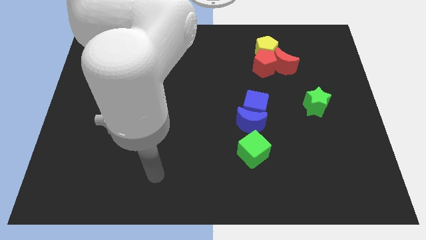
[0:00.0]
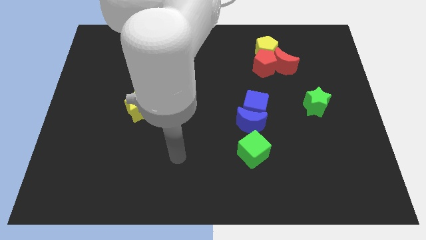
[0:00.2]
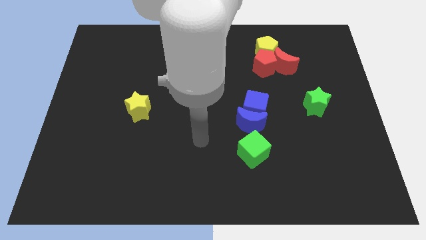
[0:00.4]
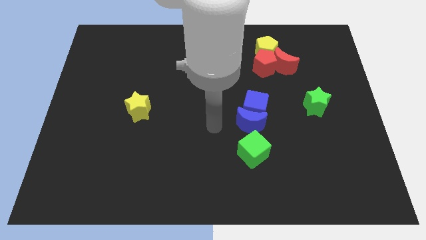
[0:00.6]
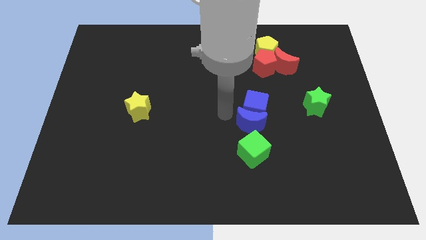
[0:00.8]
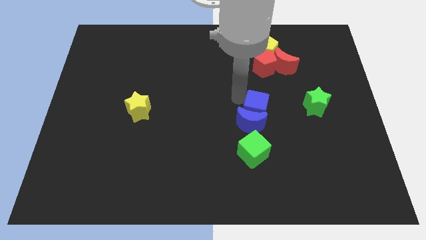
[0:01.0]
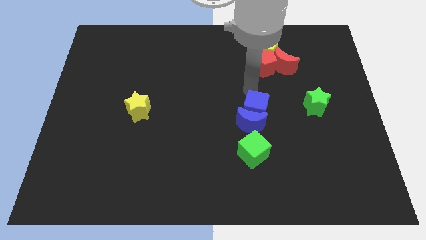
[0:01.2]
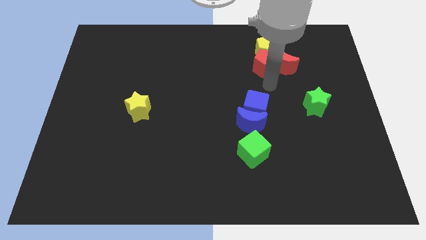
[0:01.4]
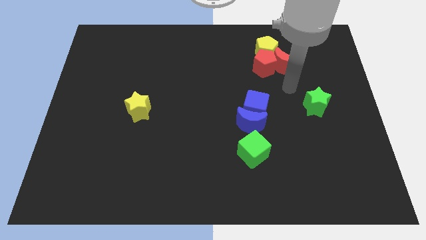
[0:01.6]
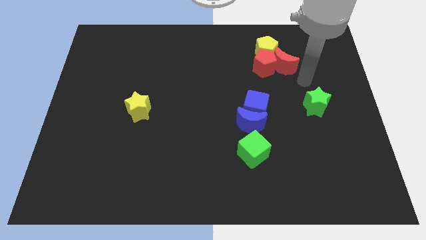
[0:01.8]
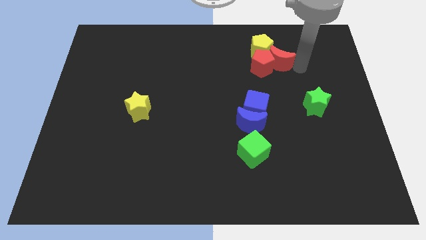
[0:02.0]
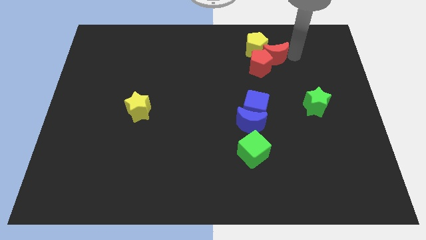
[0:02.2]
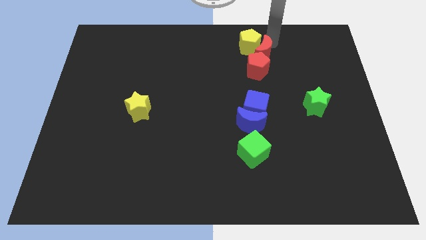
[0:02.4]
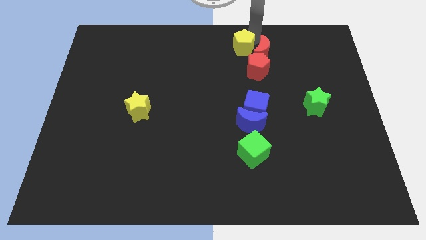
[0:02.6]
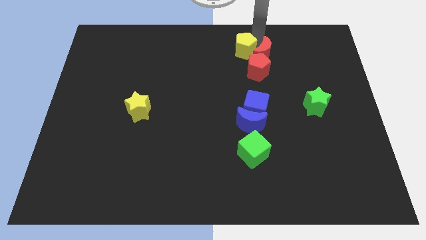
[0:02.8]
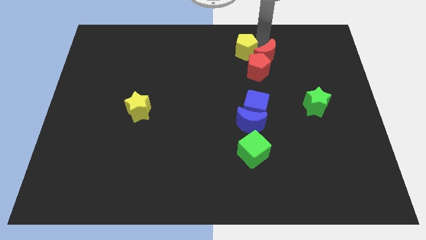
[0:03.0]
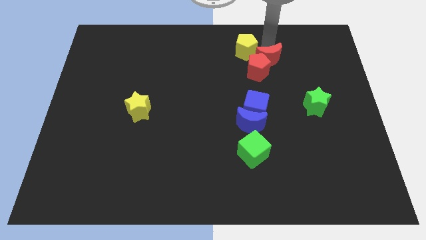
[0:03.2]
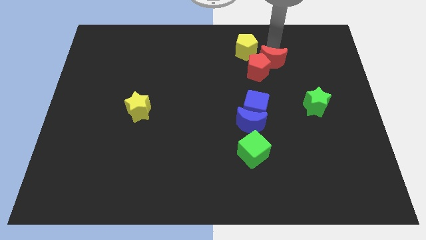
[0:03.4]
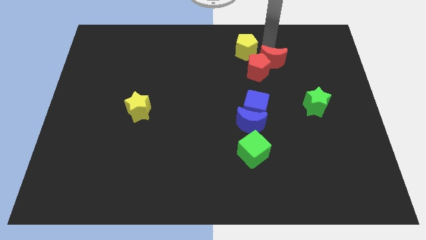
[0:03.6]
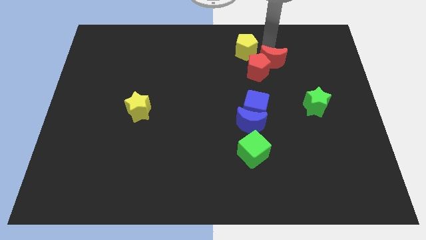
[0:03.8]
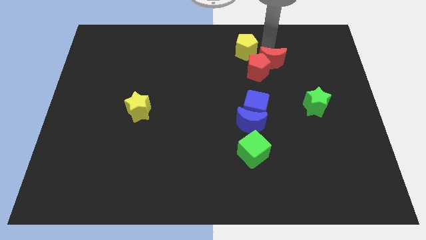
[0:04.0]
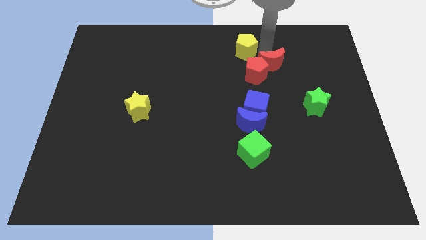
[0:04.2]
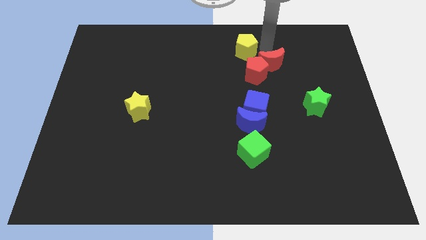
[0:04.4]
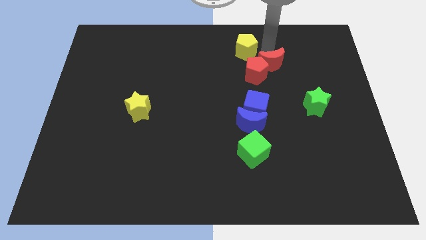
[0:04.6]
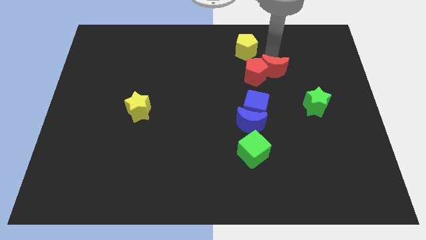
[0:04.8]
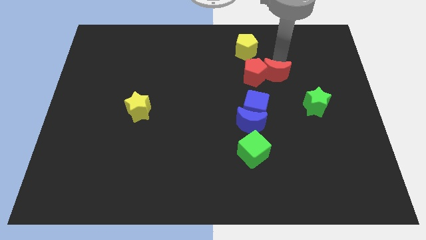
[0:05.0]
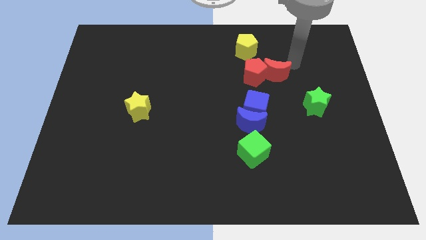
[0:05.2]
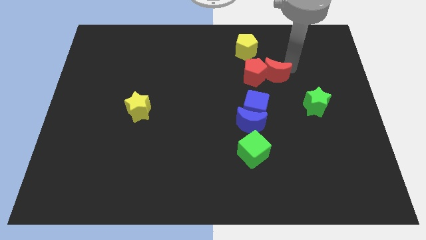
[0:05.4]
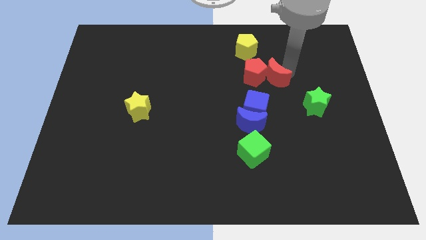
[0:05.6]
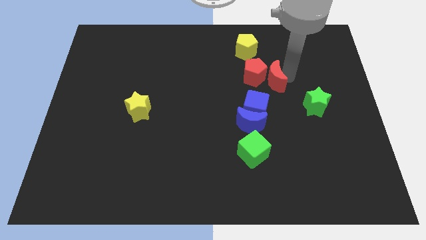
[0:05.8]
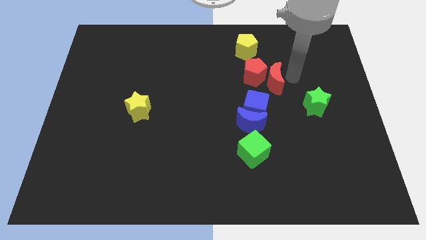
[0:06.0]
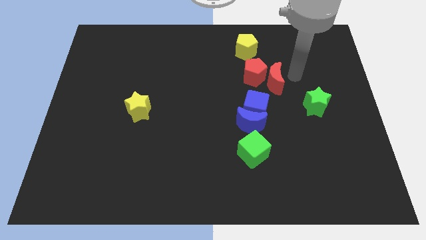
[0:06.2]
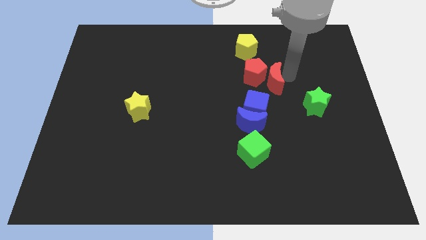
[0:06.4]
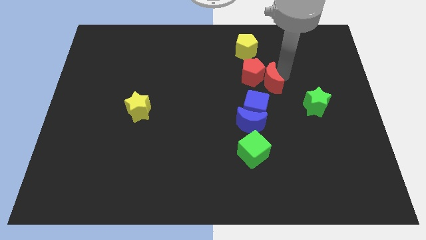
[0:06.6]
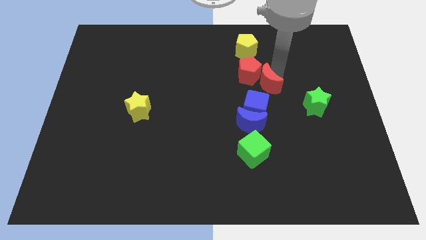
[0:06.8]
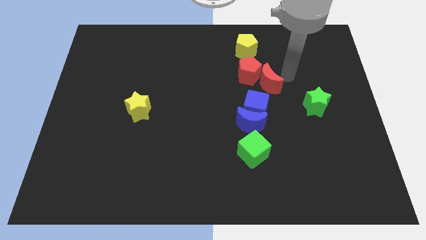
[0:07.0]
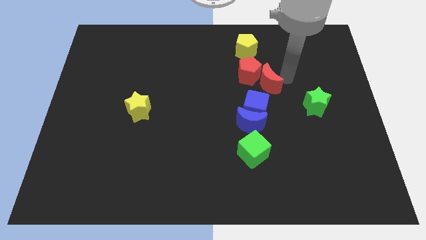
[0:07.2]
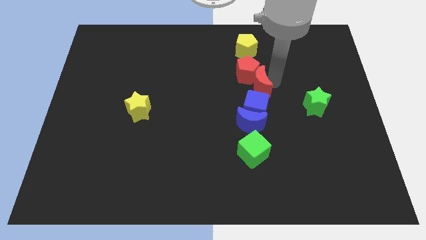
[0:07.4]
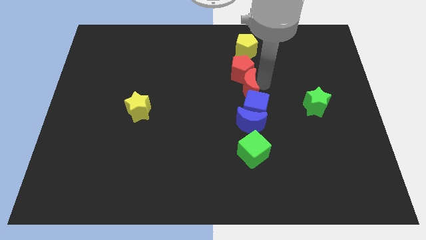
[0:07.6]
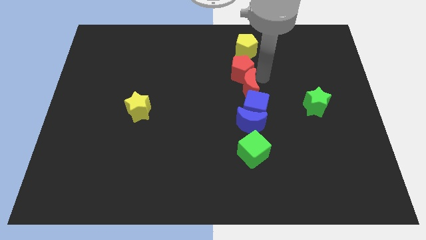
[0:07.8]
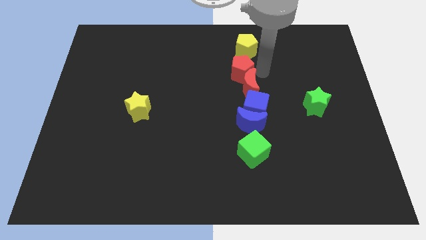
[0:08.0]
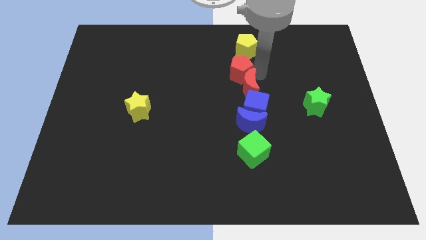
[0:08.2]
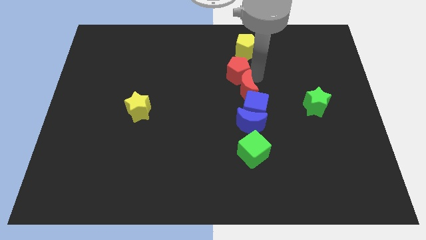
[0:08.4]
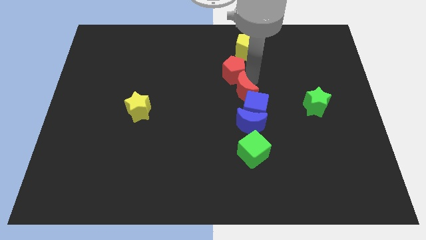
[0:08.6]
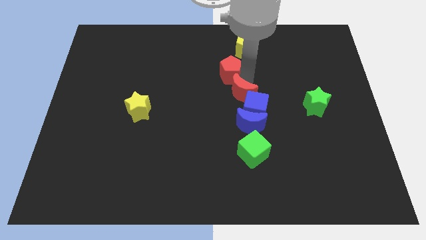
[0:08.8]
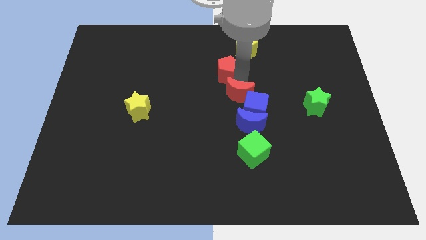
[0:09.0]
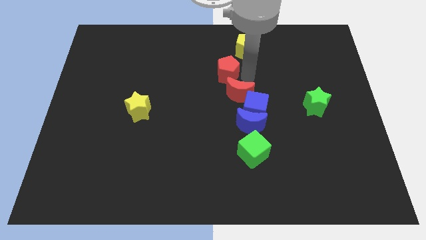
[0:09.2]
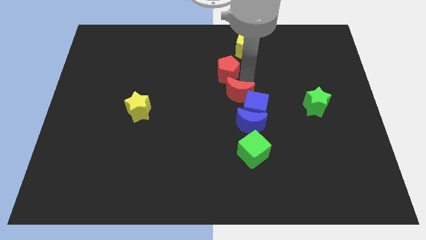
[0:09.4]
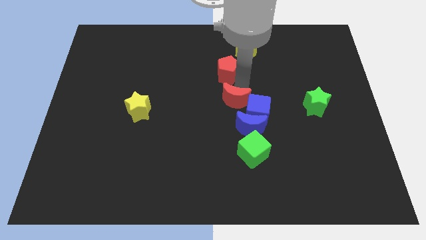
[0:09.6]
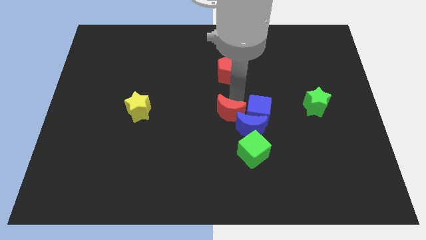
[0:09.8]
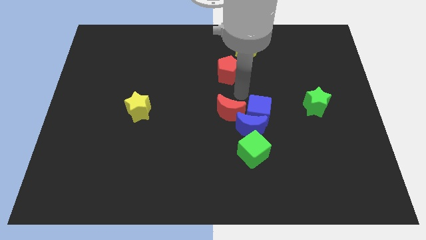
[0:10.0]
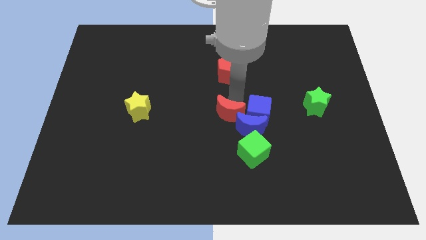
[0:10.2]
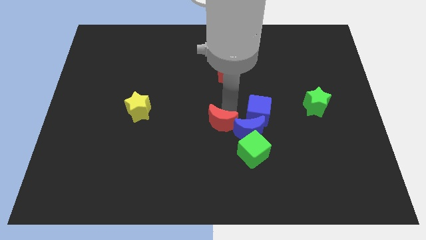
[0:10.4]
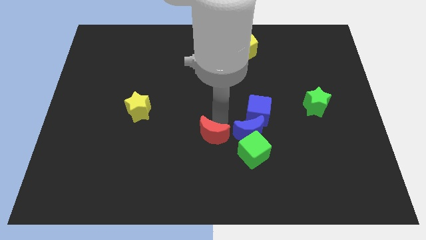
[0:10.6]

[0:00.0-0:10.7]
move the red moon to the left side of the green cube

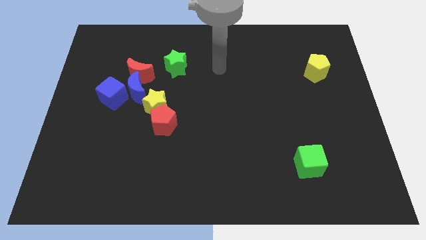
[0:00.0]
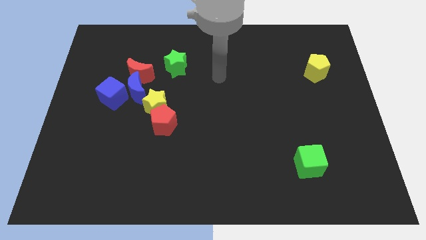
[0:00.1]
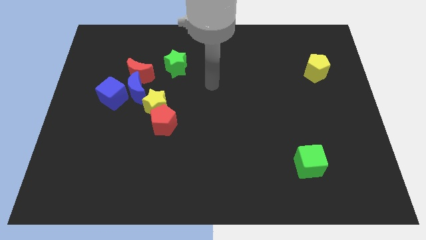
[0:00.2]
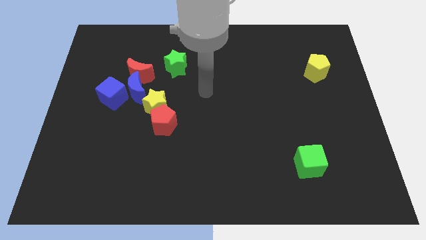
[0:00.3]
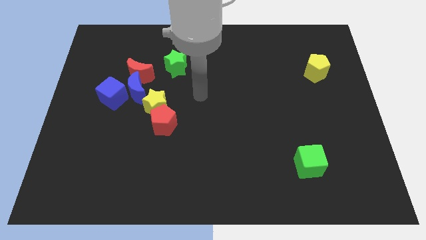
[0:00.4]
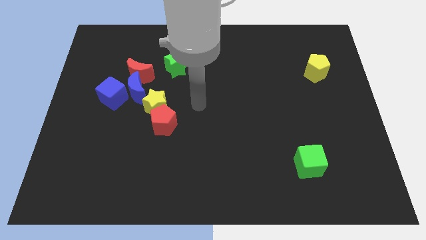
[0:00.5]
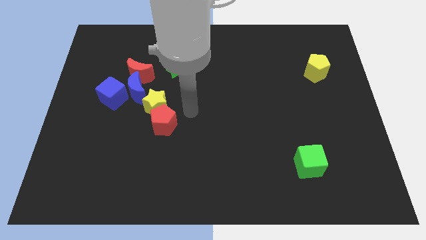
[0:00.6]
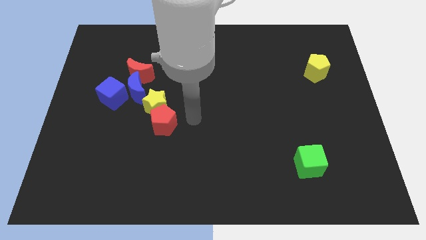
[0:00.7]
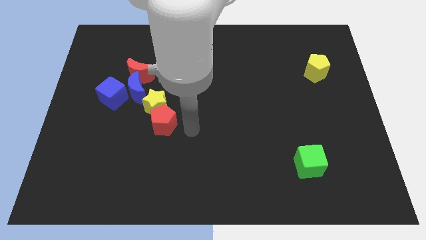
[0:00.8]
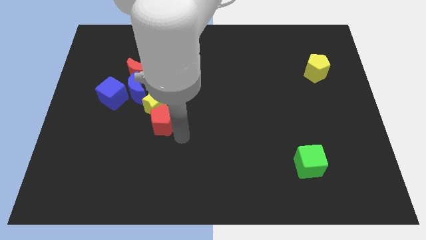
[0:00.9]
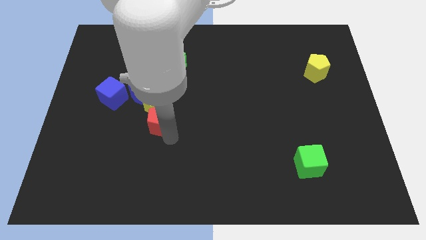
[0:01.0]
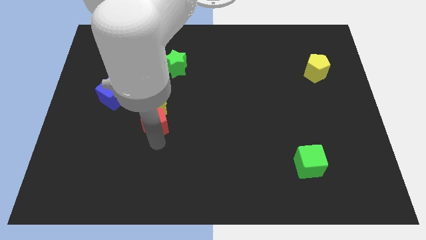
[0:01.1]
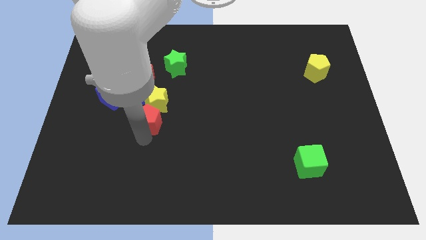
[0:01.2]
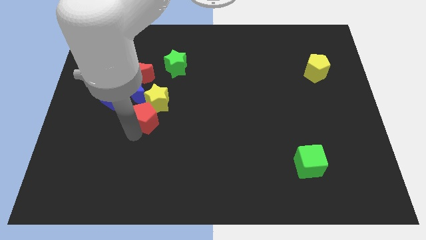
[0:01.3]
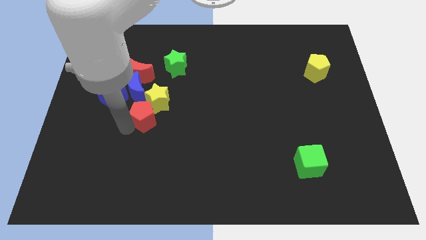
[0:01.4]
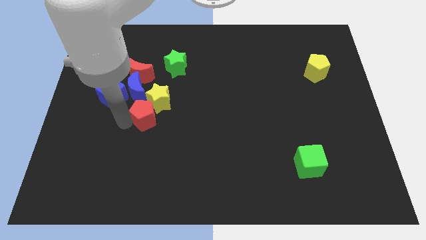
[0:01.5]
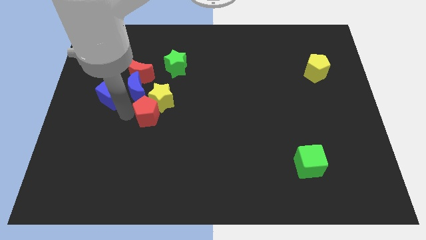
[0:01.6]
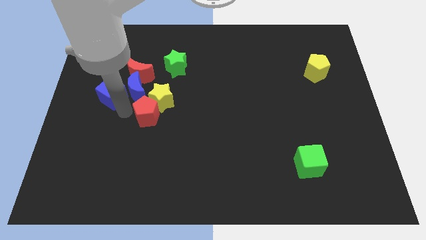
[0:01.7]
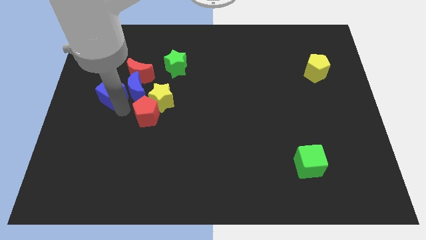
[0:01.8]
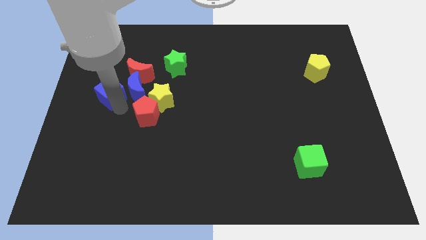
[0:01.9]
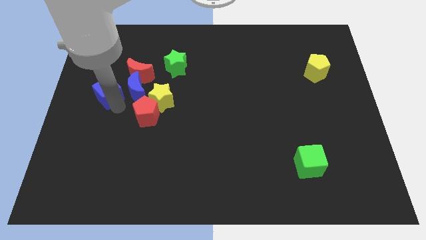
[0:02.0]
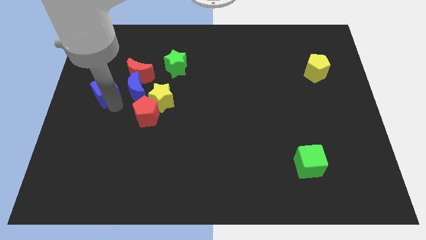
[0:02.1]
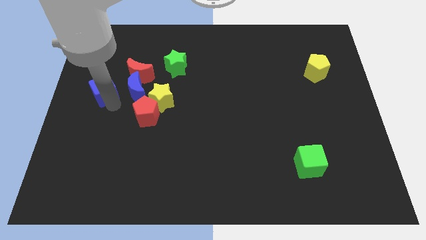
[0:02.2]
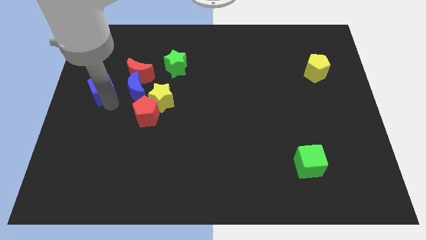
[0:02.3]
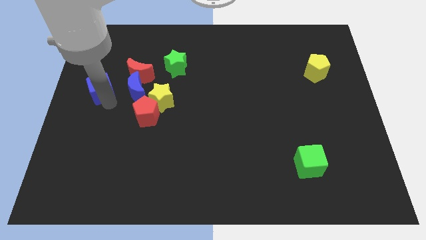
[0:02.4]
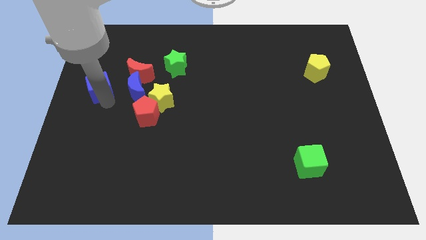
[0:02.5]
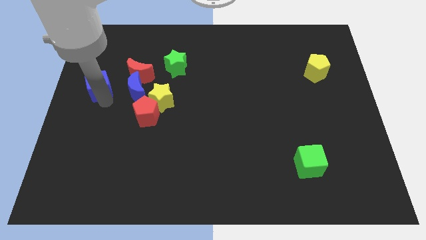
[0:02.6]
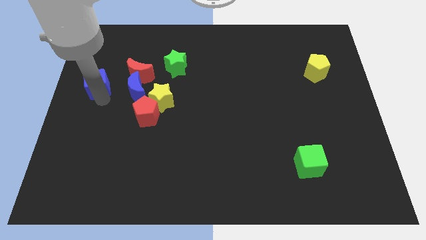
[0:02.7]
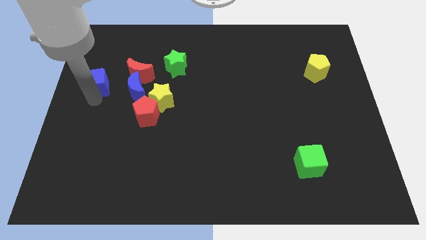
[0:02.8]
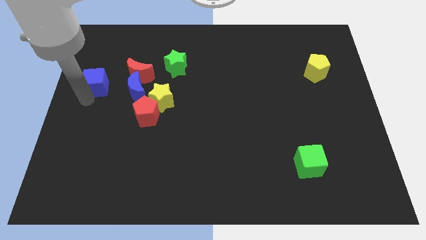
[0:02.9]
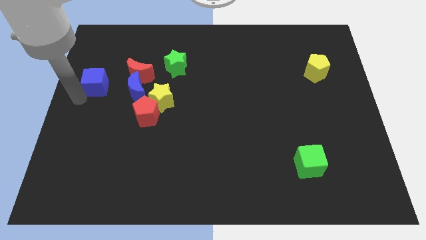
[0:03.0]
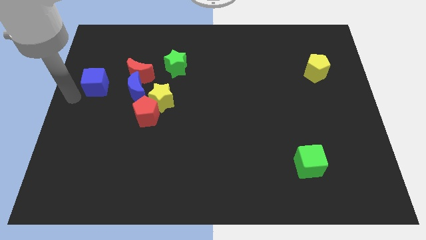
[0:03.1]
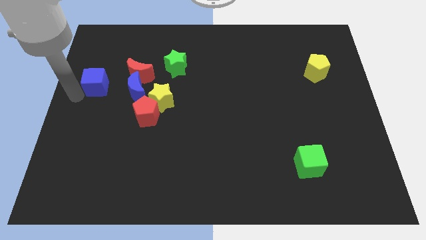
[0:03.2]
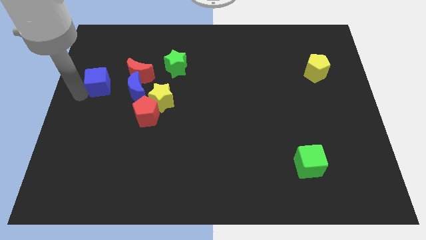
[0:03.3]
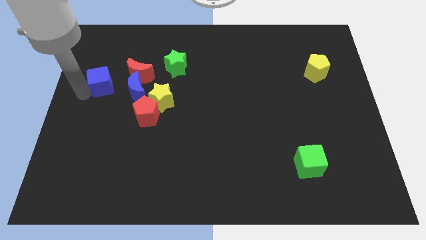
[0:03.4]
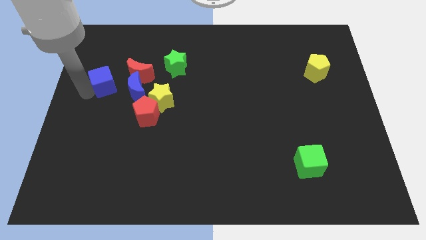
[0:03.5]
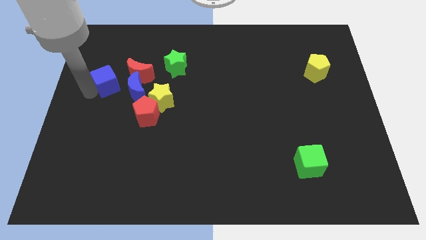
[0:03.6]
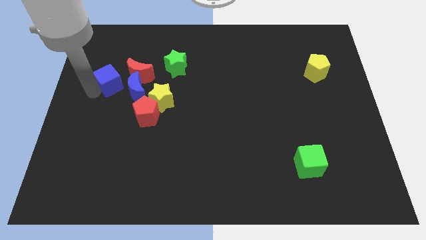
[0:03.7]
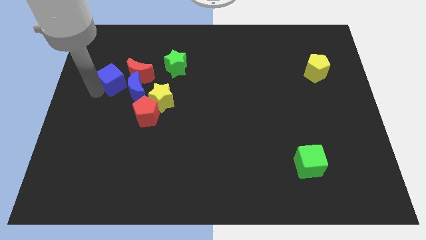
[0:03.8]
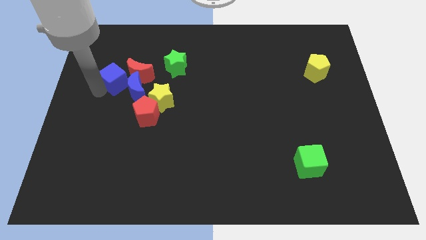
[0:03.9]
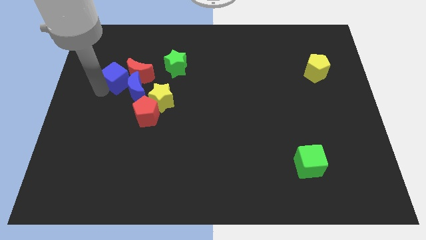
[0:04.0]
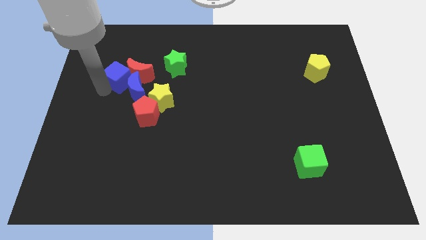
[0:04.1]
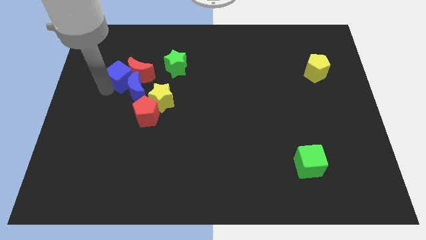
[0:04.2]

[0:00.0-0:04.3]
move the blue cube above the blue moon
